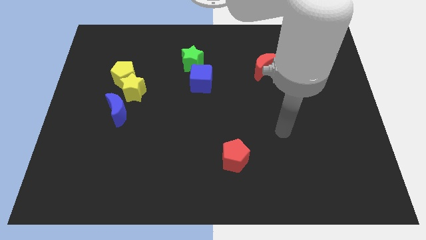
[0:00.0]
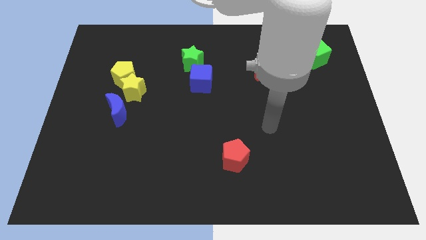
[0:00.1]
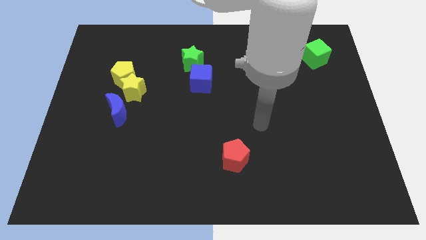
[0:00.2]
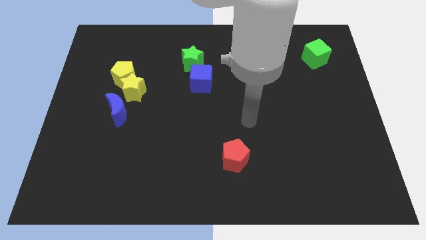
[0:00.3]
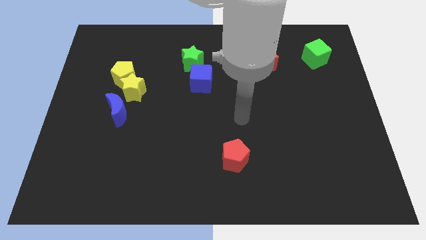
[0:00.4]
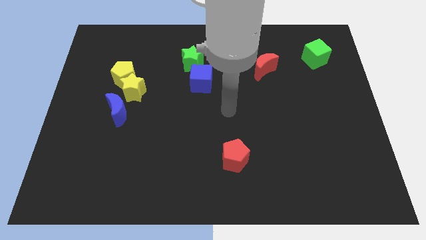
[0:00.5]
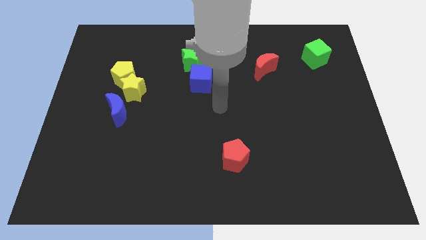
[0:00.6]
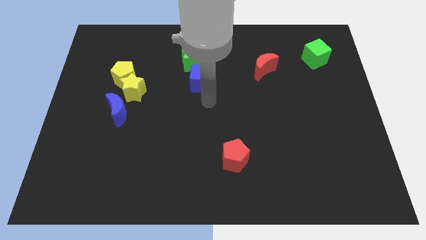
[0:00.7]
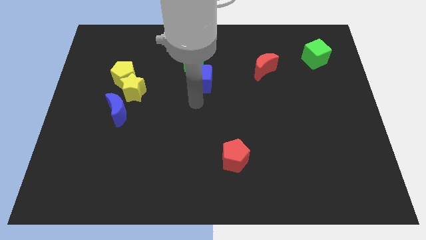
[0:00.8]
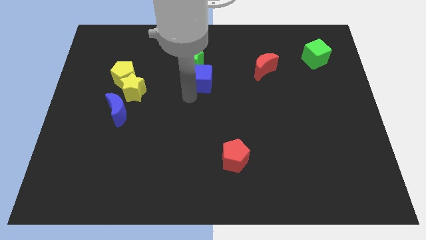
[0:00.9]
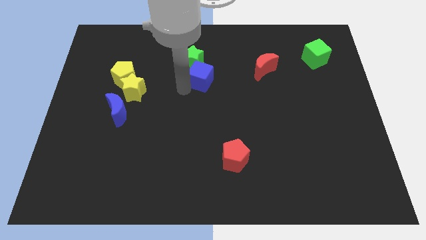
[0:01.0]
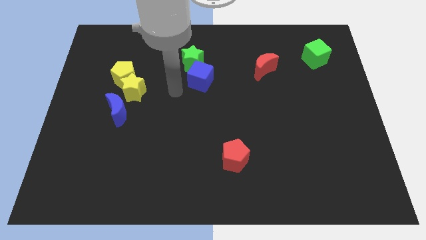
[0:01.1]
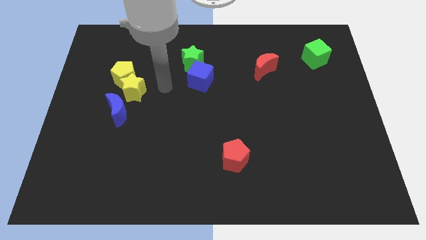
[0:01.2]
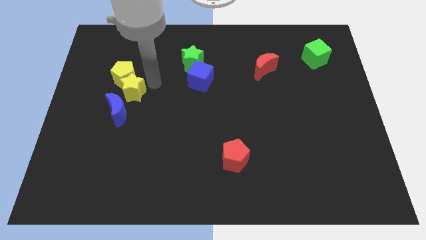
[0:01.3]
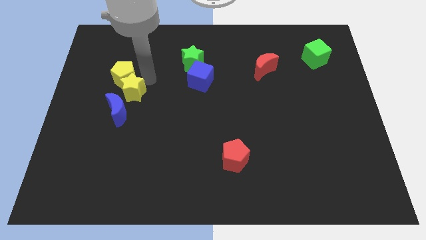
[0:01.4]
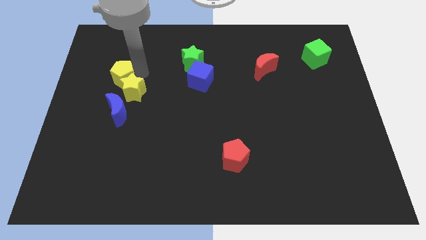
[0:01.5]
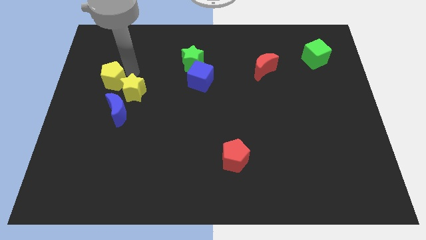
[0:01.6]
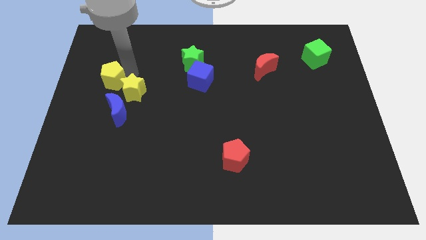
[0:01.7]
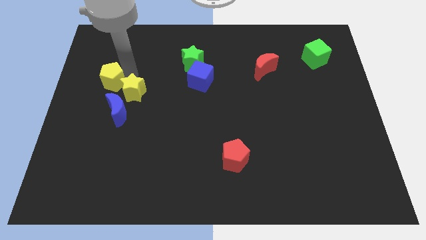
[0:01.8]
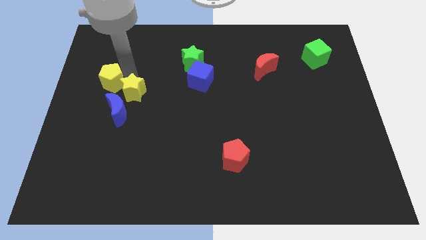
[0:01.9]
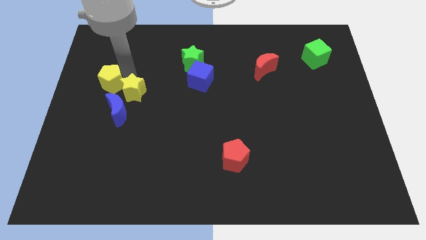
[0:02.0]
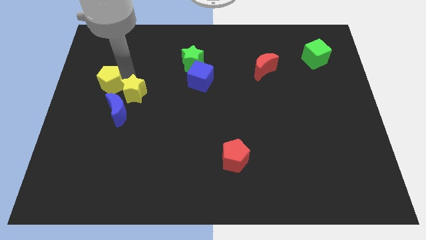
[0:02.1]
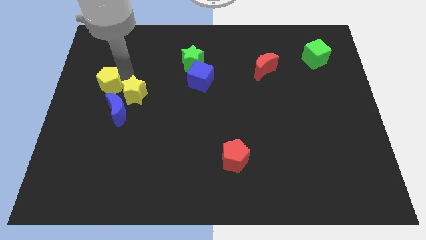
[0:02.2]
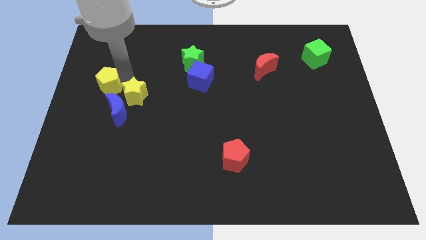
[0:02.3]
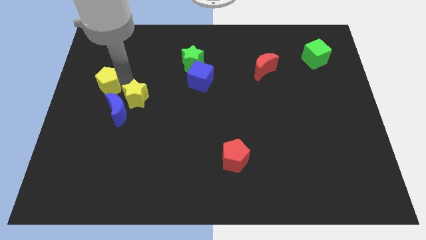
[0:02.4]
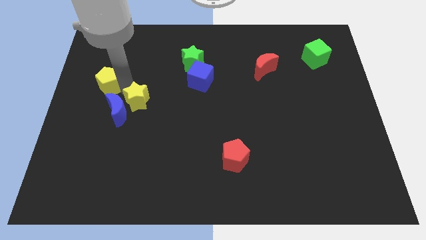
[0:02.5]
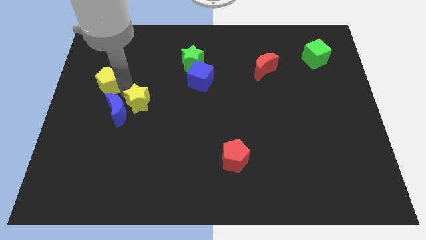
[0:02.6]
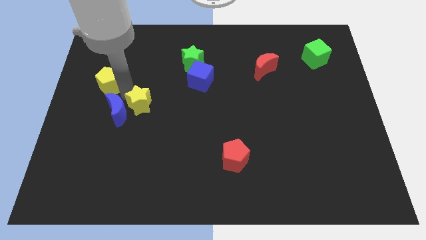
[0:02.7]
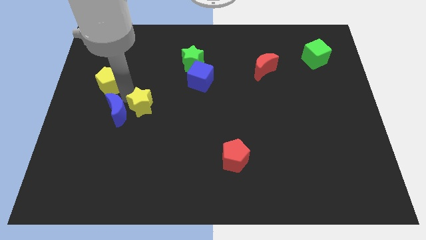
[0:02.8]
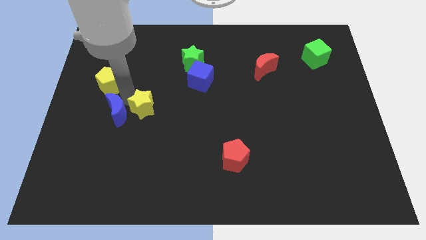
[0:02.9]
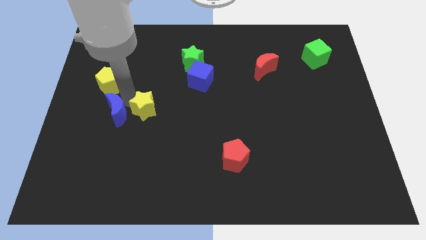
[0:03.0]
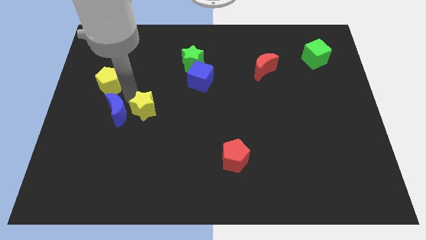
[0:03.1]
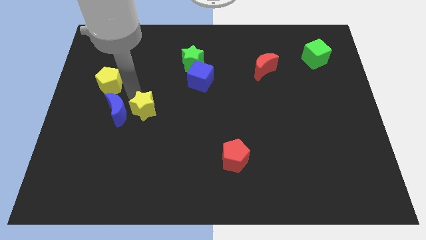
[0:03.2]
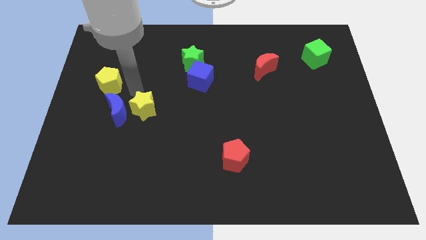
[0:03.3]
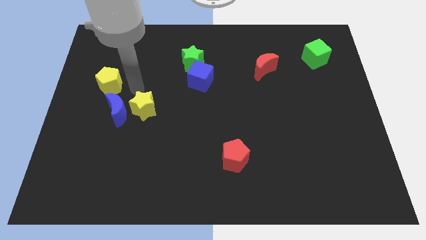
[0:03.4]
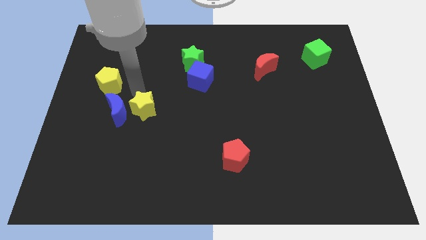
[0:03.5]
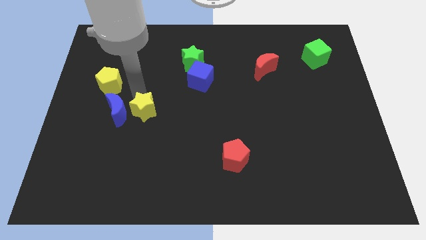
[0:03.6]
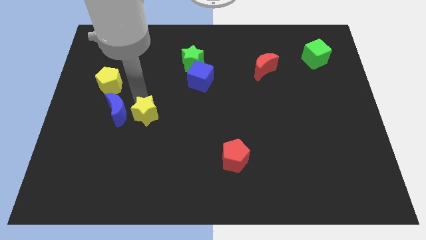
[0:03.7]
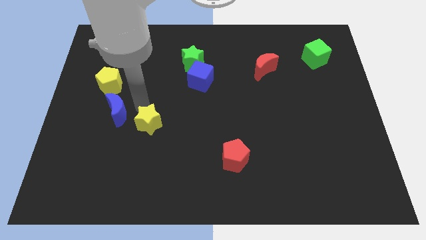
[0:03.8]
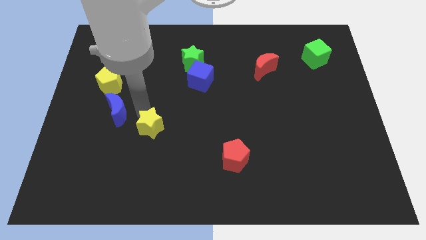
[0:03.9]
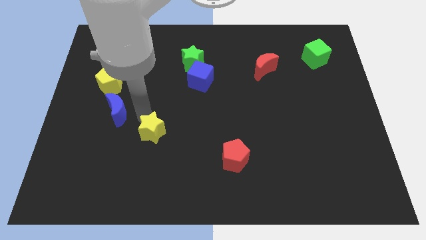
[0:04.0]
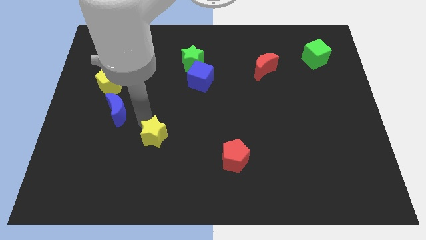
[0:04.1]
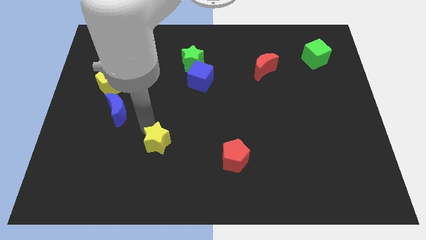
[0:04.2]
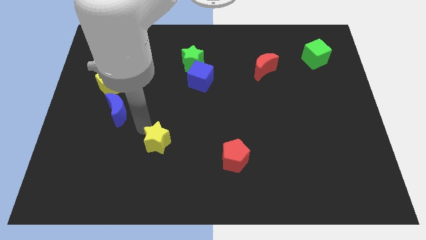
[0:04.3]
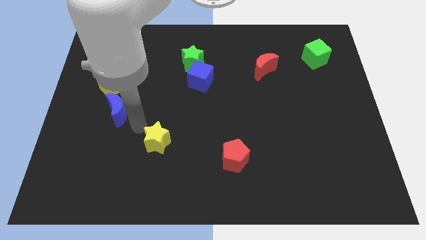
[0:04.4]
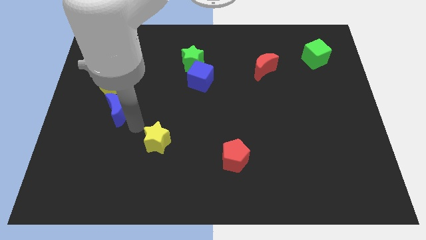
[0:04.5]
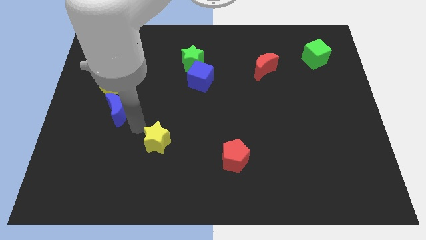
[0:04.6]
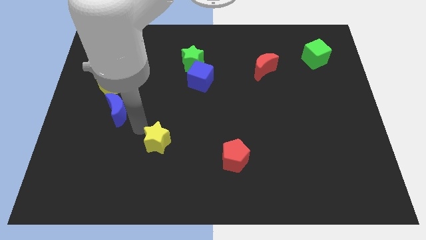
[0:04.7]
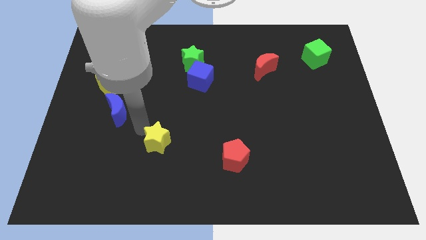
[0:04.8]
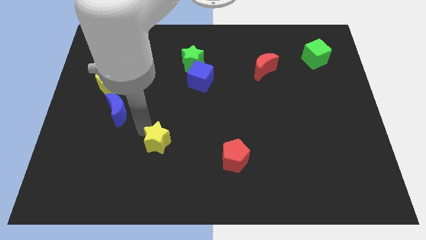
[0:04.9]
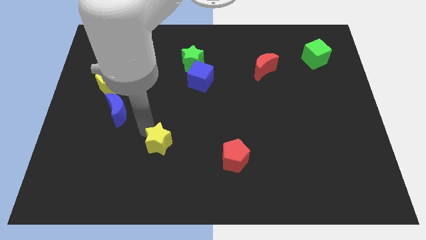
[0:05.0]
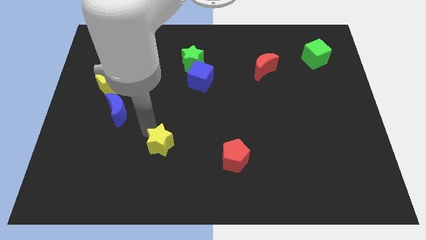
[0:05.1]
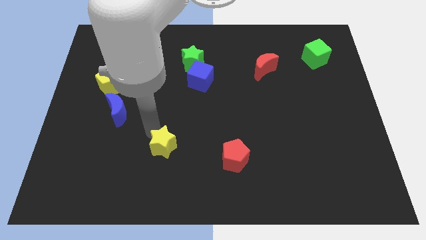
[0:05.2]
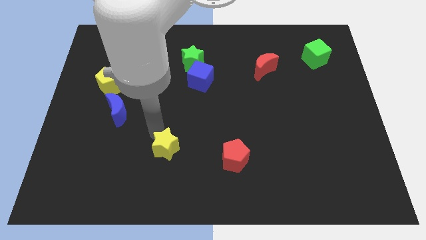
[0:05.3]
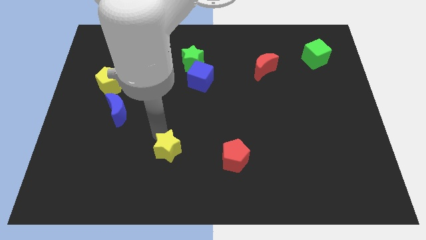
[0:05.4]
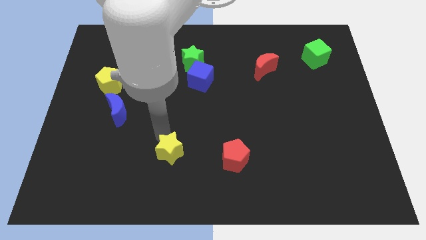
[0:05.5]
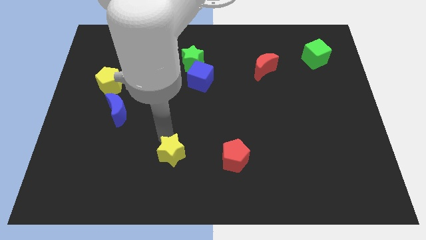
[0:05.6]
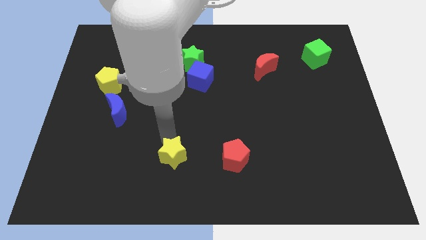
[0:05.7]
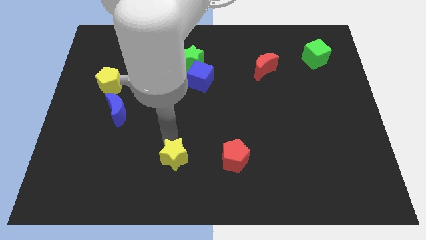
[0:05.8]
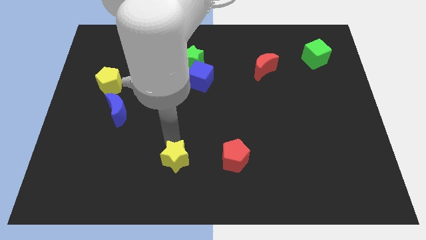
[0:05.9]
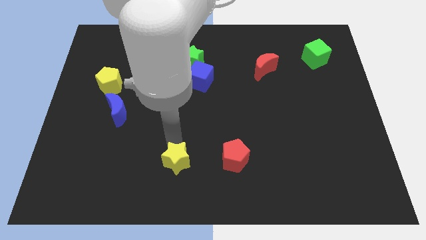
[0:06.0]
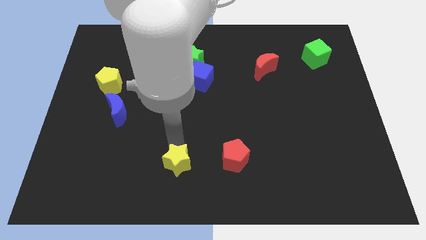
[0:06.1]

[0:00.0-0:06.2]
move the yellow star to the bottom
